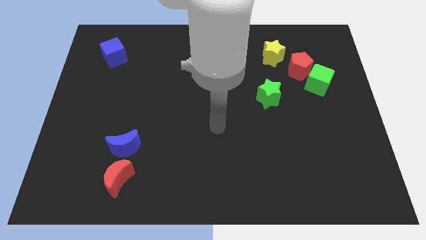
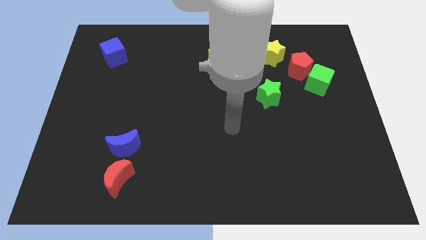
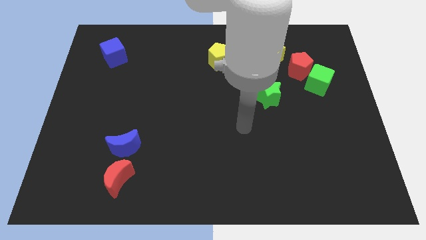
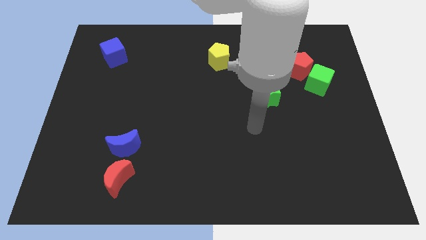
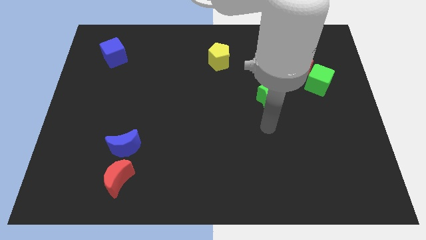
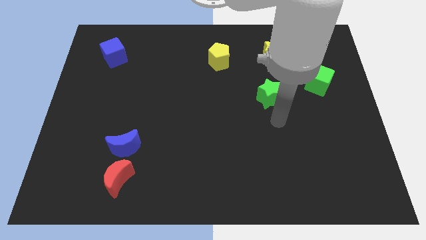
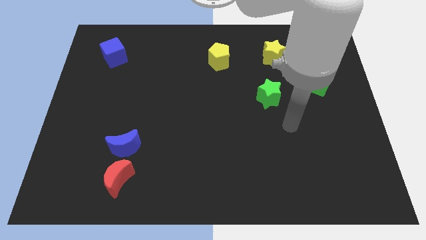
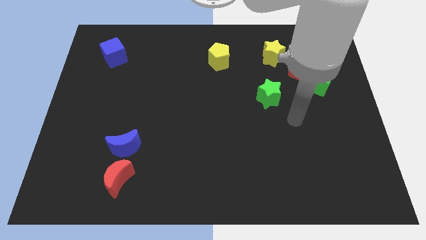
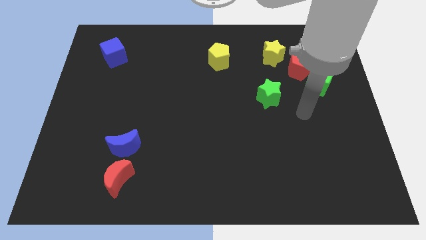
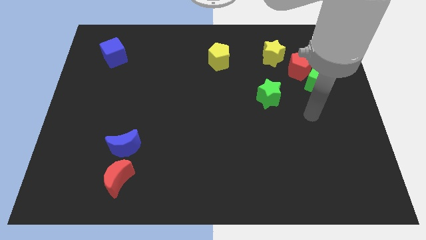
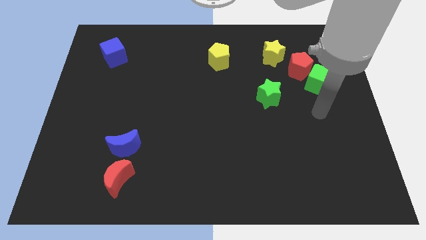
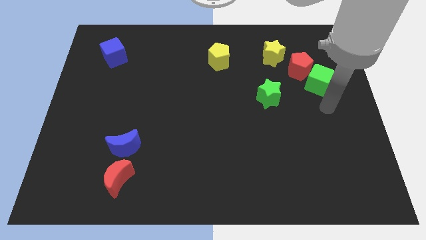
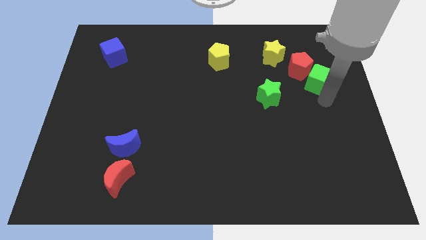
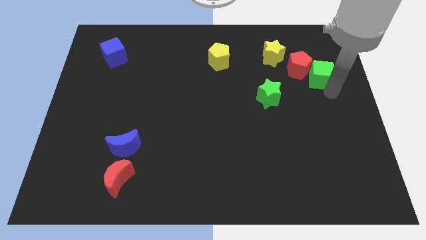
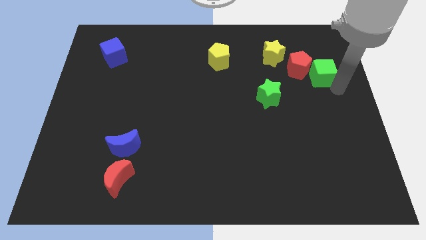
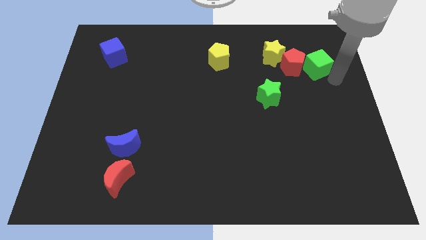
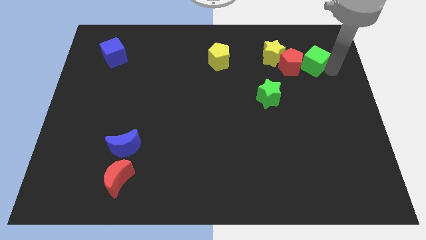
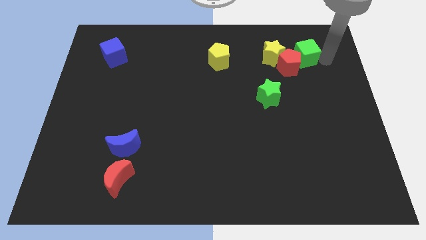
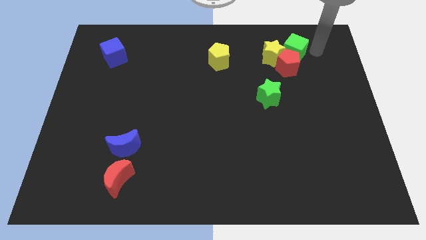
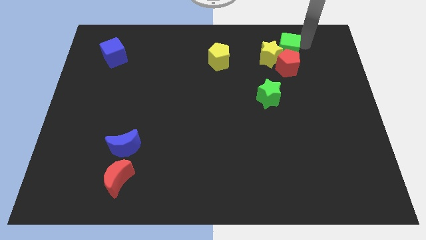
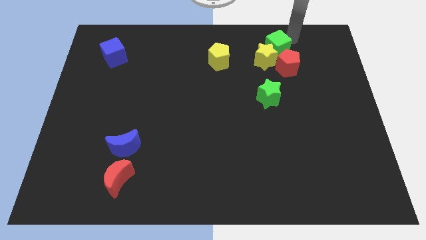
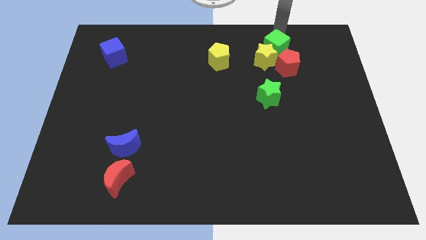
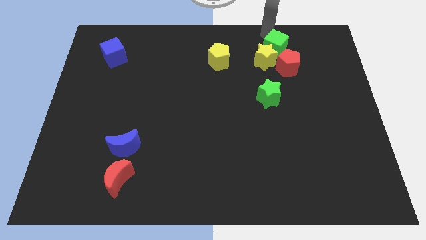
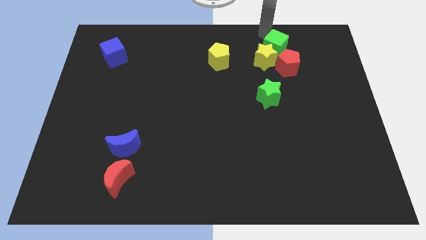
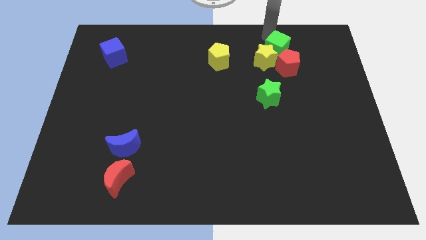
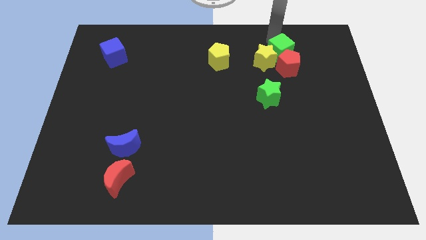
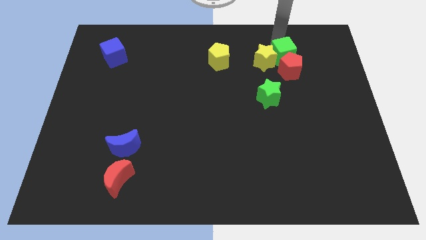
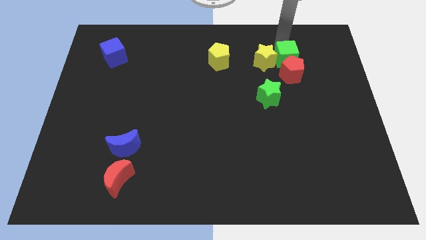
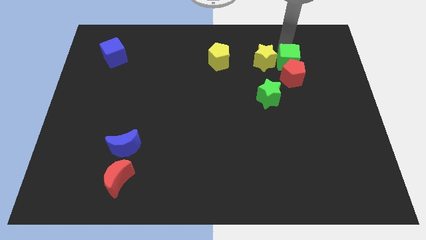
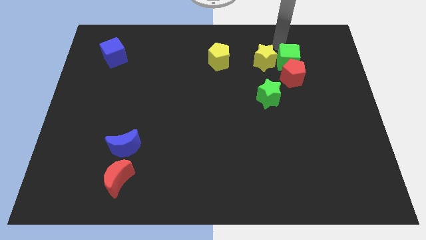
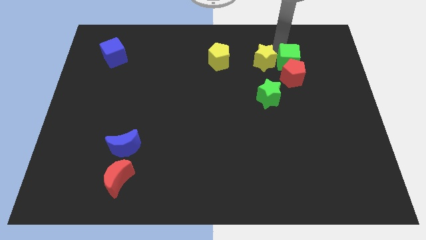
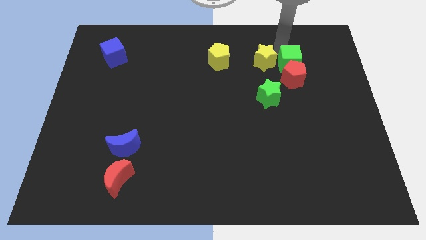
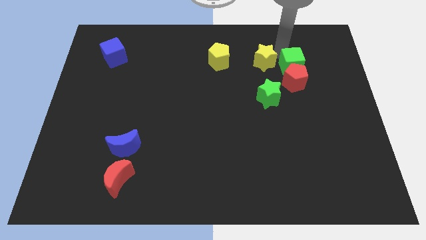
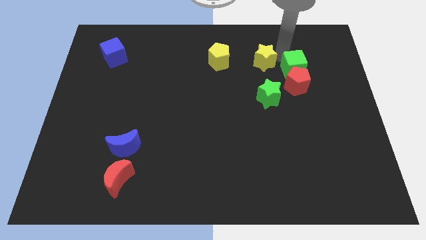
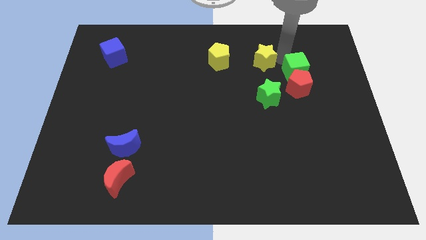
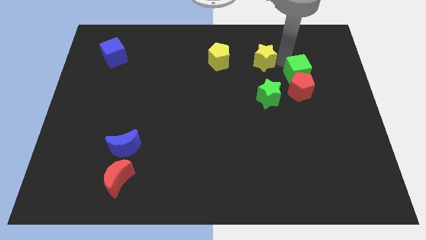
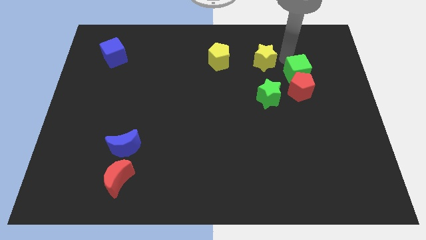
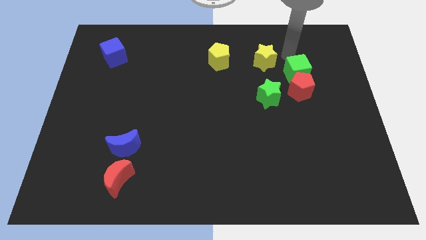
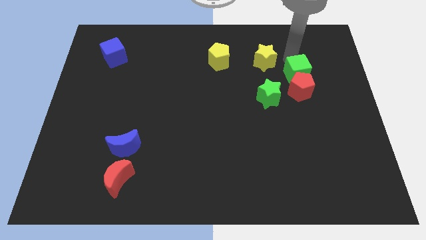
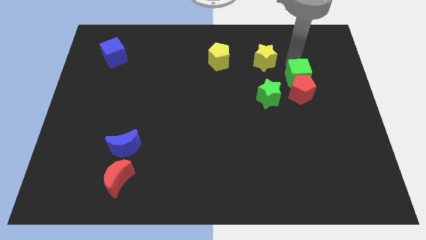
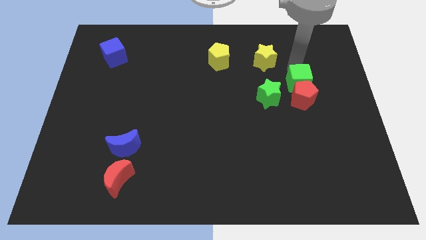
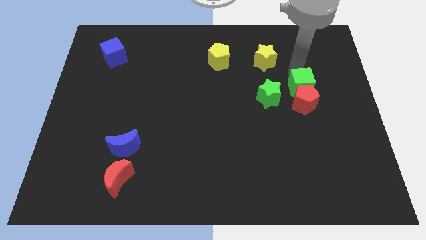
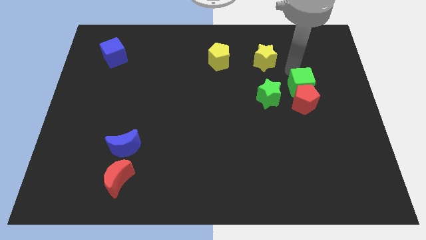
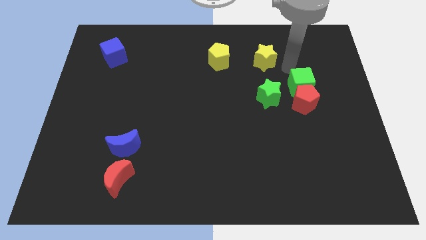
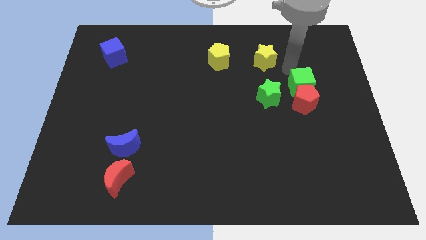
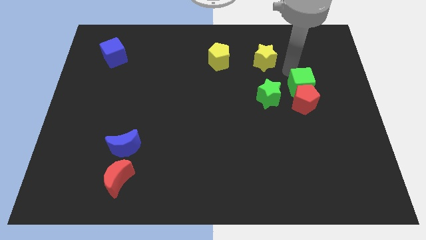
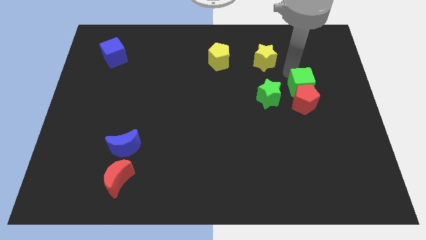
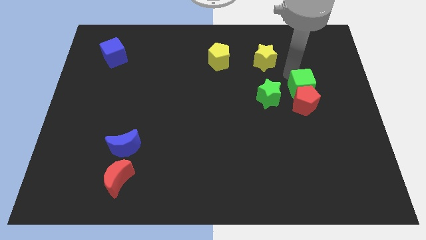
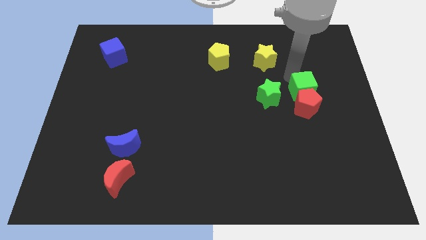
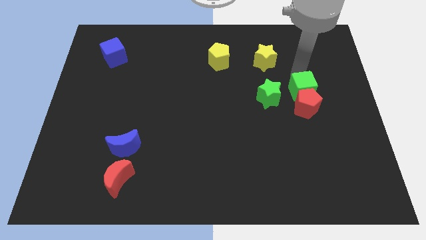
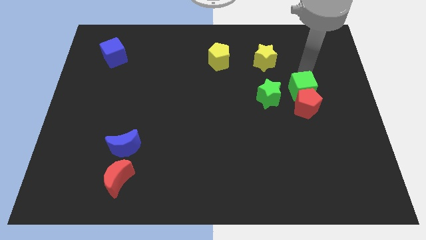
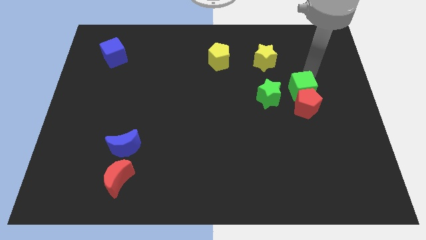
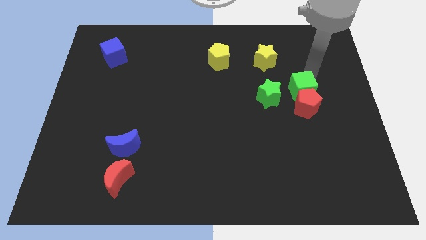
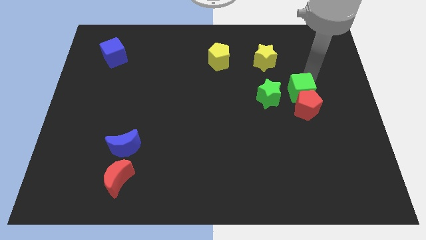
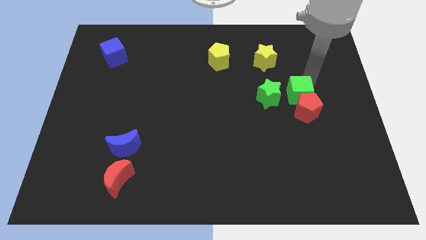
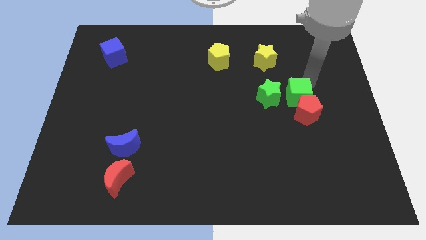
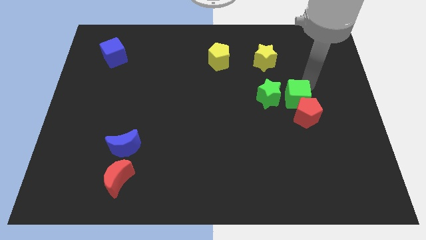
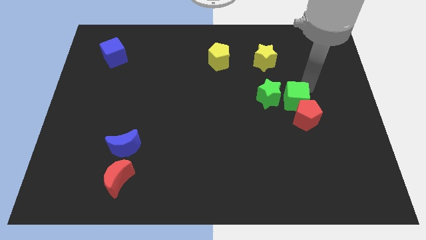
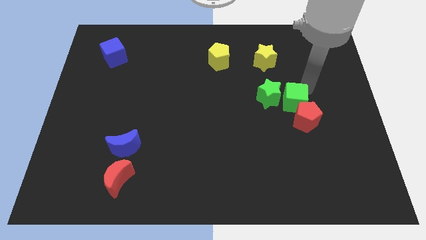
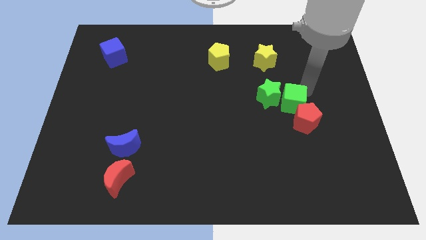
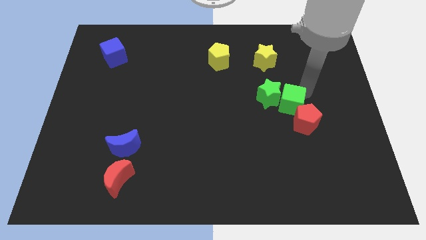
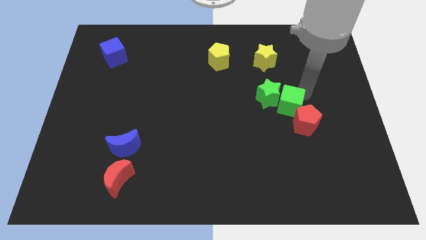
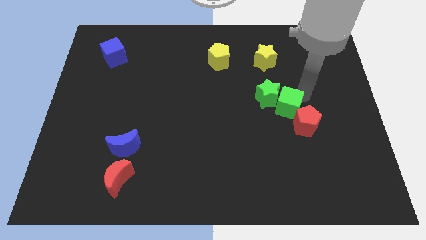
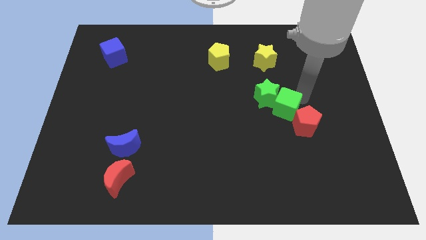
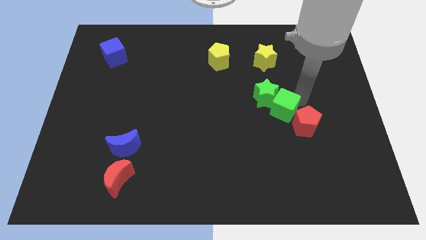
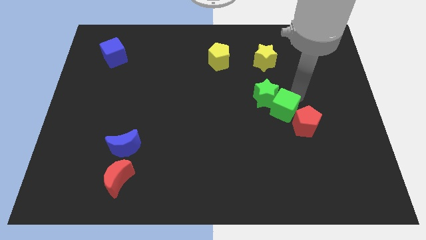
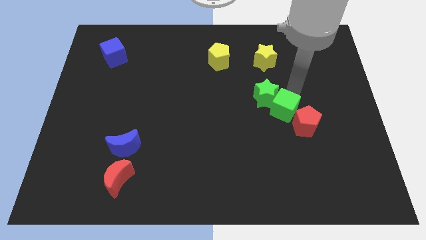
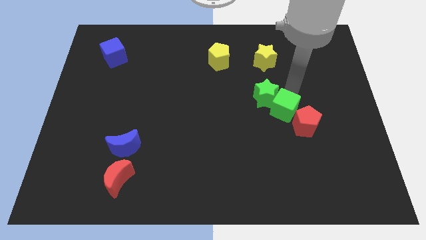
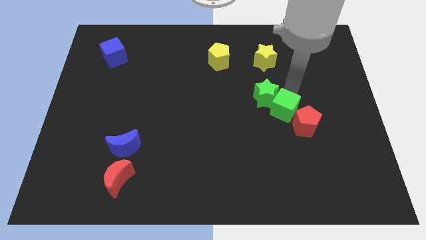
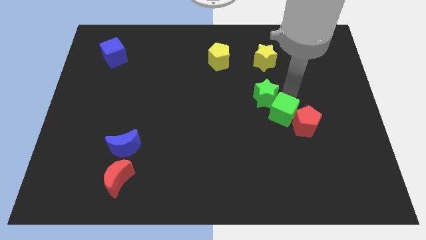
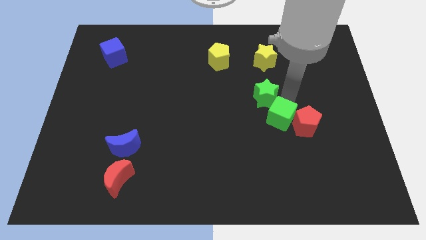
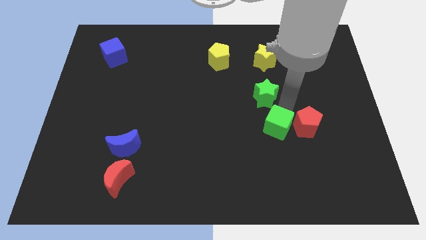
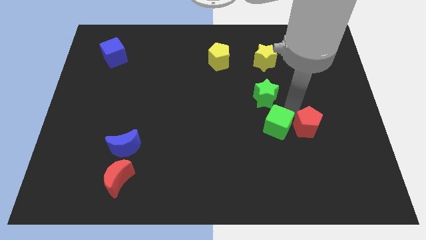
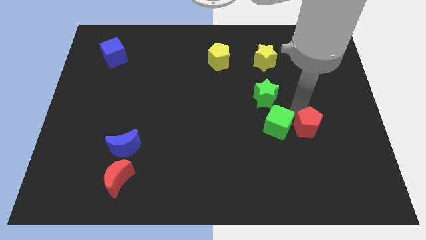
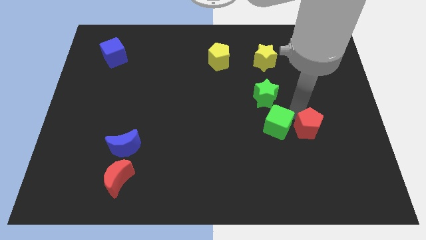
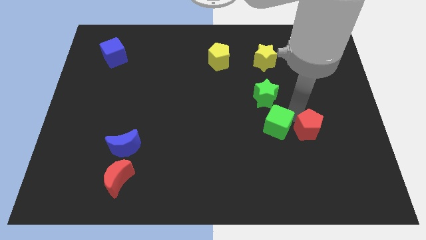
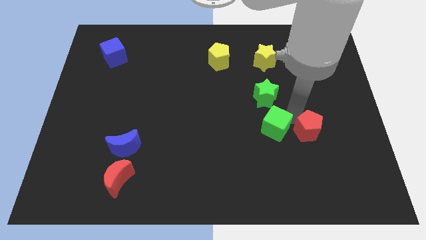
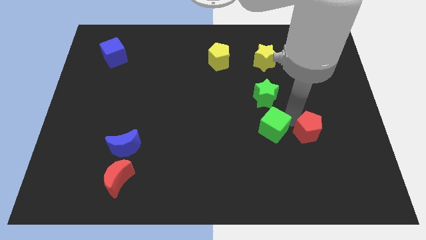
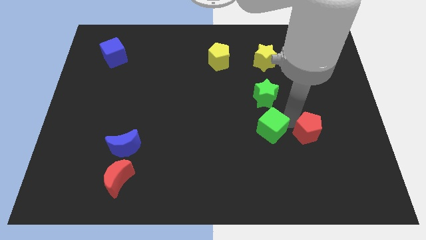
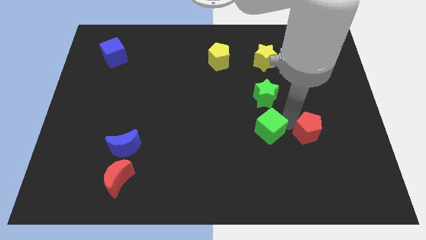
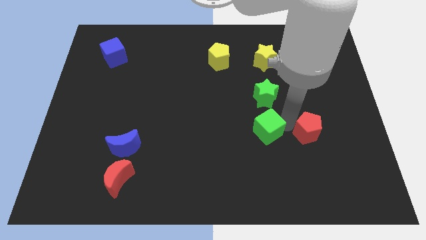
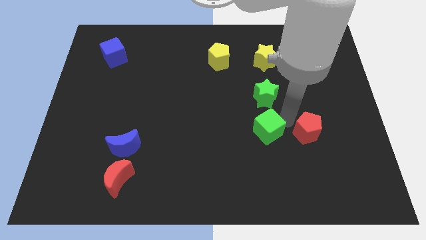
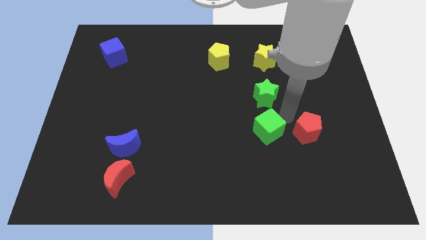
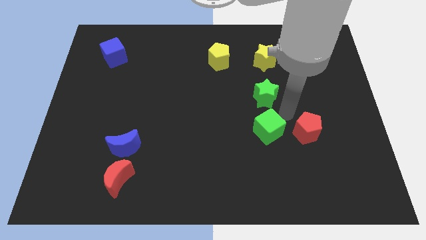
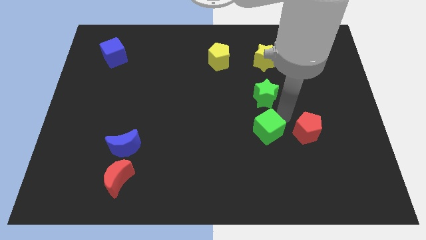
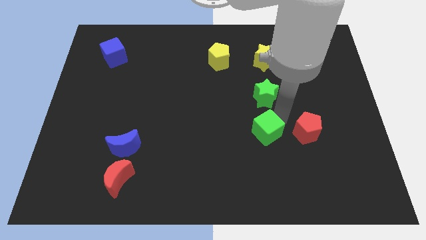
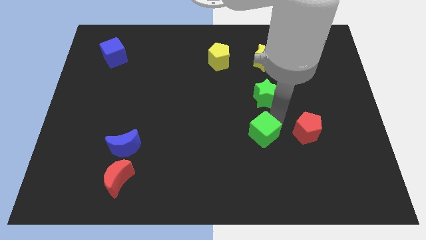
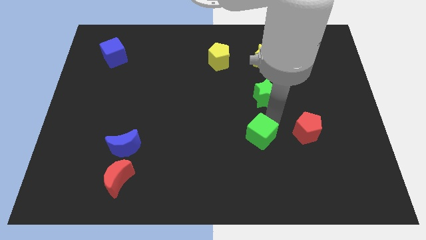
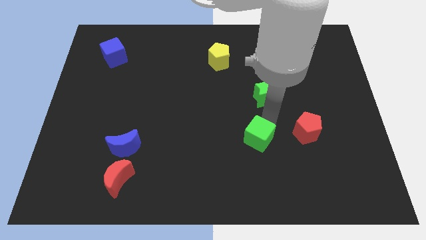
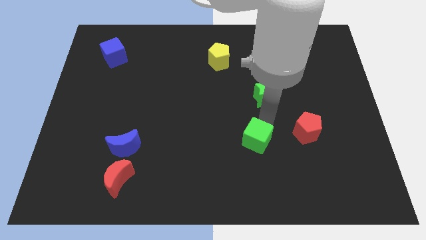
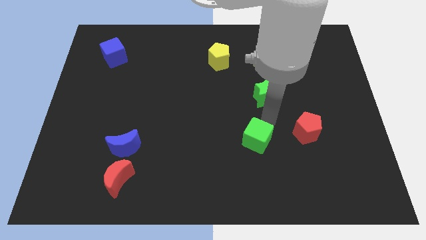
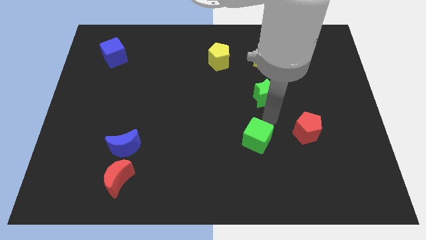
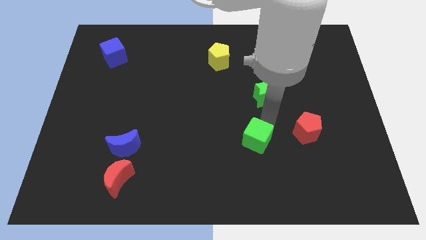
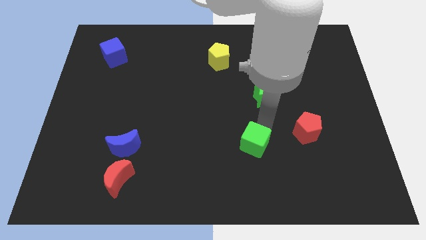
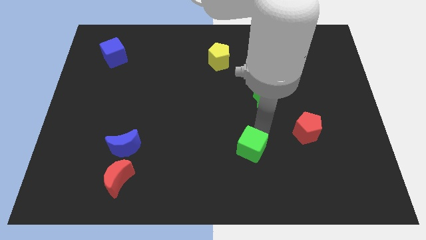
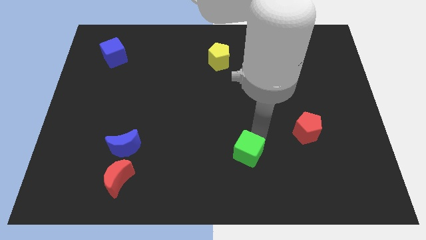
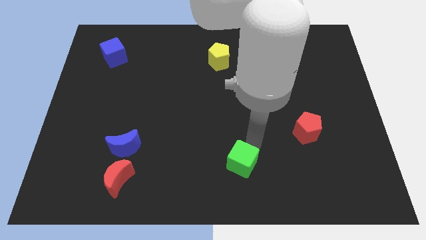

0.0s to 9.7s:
push the green cube to the bottom side
